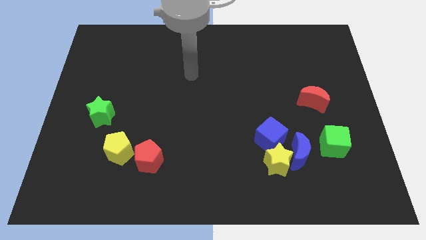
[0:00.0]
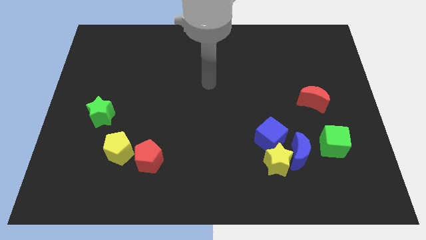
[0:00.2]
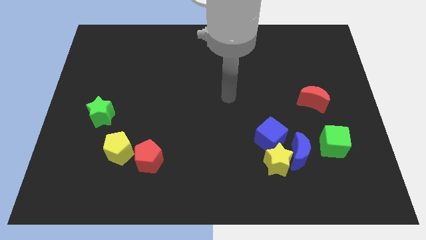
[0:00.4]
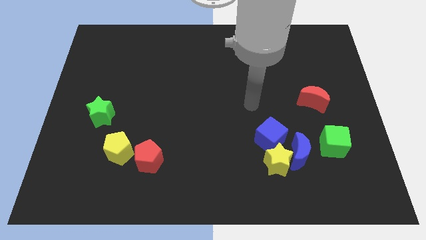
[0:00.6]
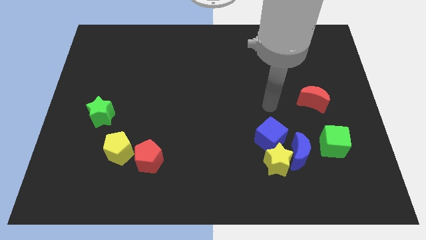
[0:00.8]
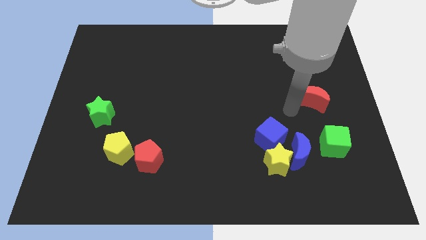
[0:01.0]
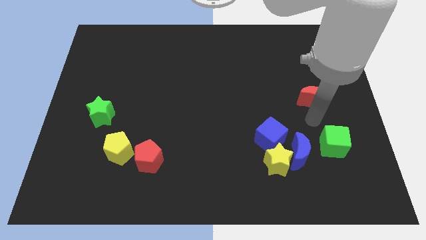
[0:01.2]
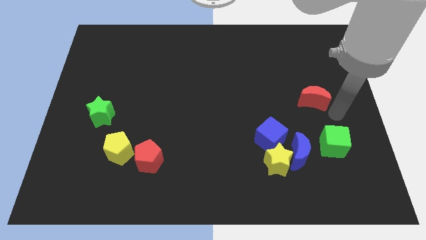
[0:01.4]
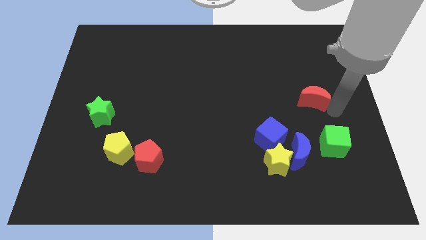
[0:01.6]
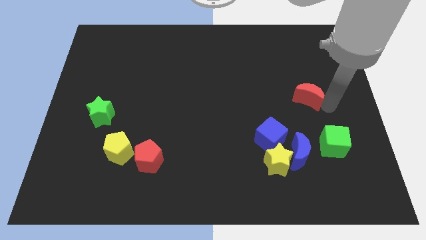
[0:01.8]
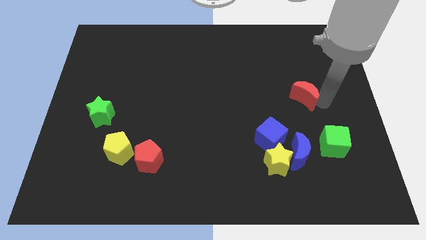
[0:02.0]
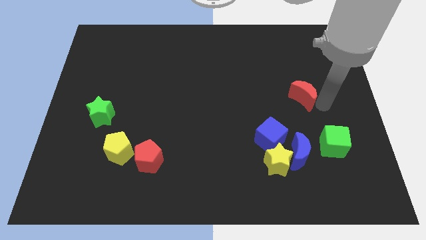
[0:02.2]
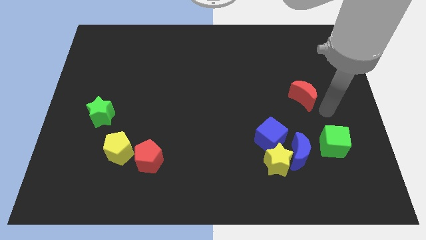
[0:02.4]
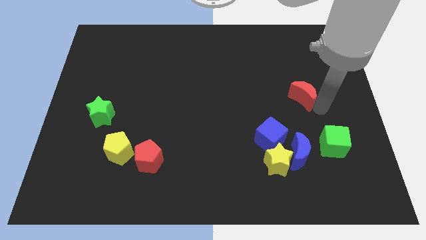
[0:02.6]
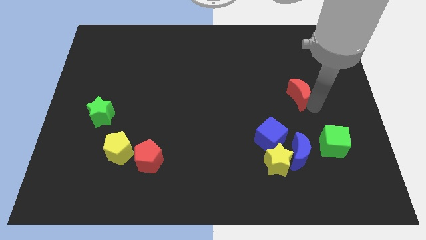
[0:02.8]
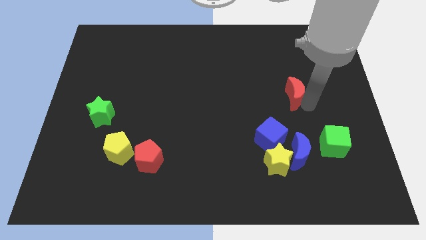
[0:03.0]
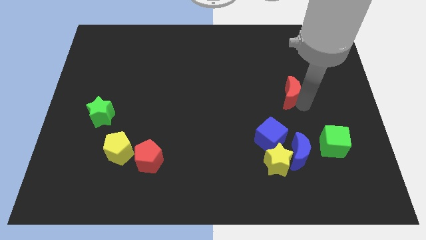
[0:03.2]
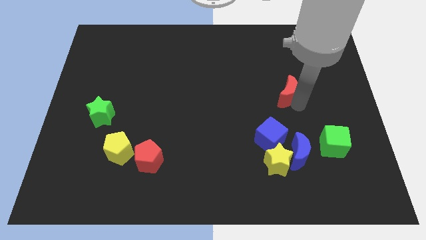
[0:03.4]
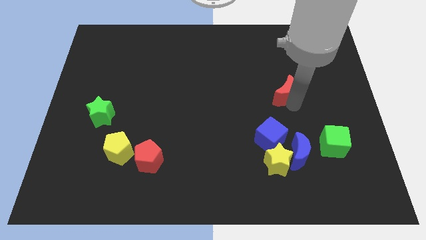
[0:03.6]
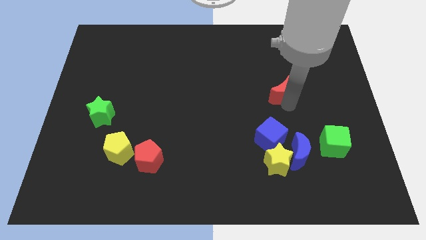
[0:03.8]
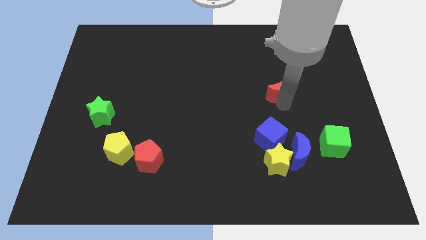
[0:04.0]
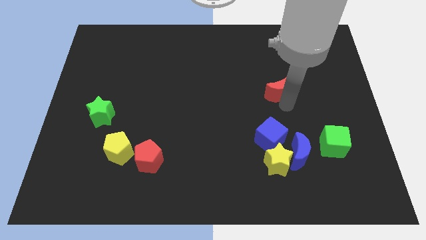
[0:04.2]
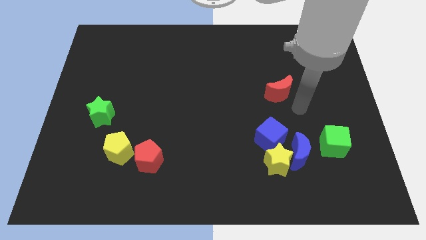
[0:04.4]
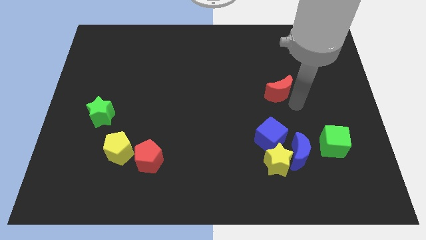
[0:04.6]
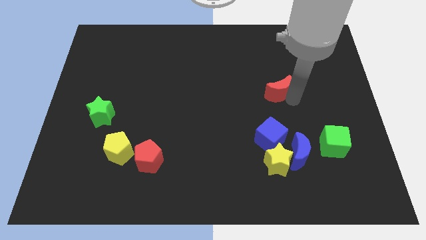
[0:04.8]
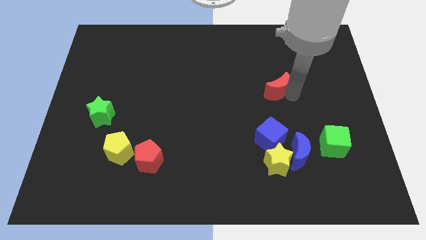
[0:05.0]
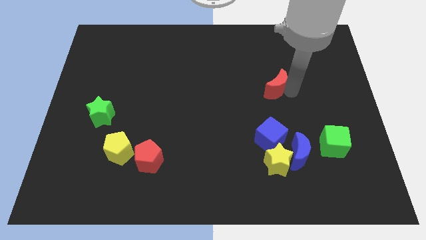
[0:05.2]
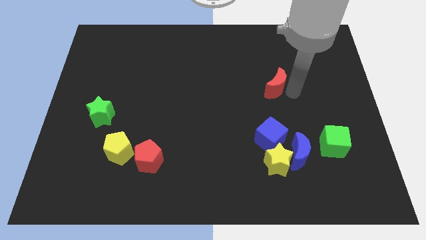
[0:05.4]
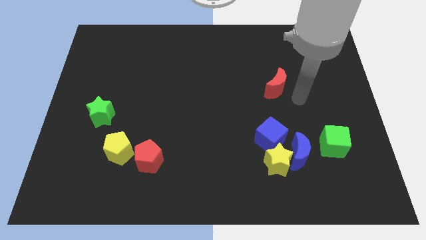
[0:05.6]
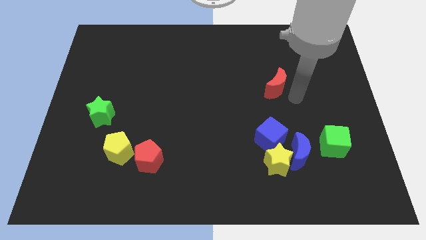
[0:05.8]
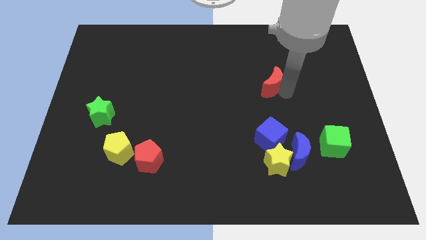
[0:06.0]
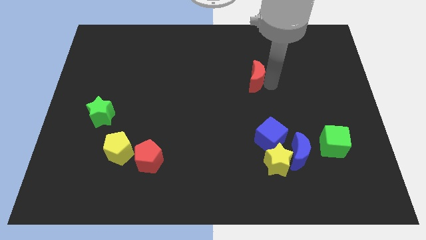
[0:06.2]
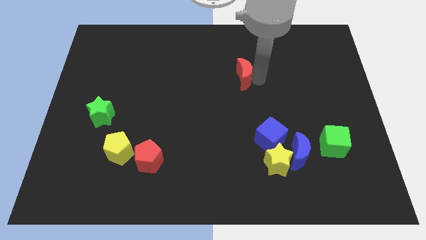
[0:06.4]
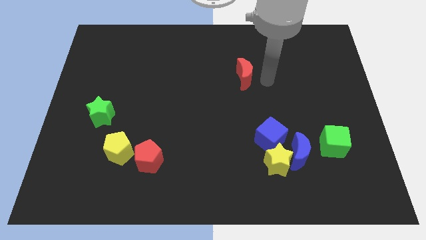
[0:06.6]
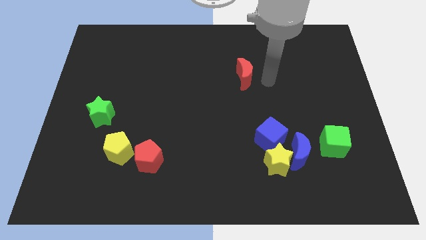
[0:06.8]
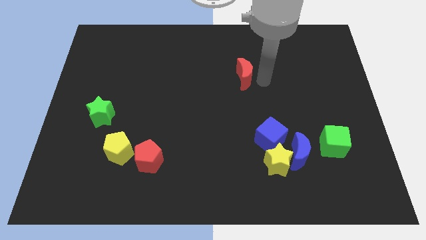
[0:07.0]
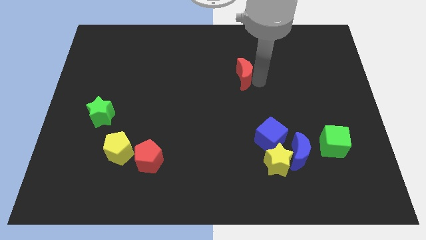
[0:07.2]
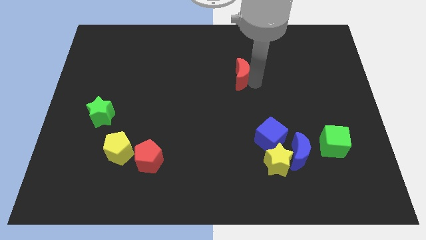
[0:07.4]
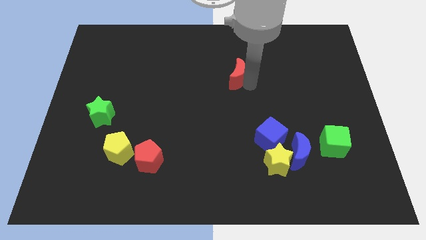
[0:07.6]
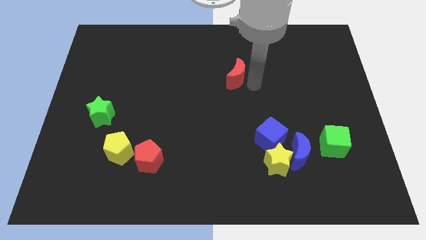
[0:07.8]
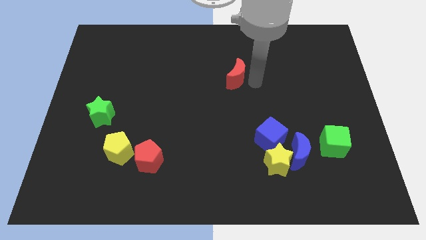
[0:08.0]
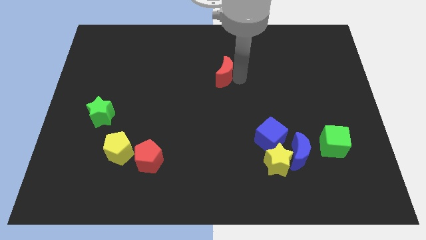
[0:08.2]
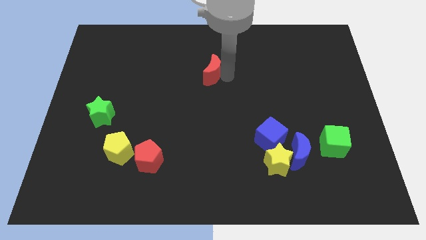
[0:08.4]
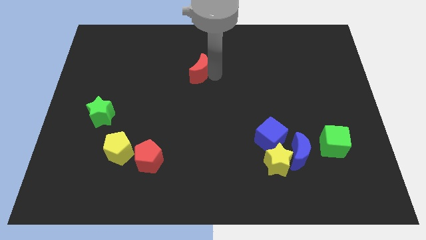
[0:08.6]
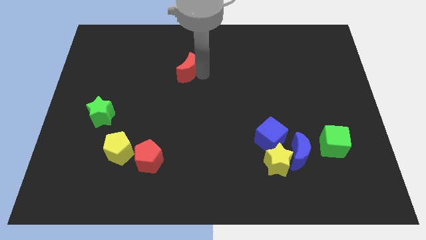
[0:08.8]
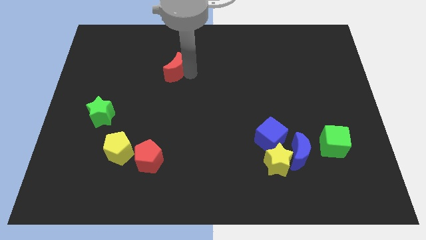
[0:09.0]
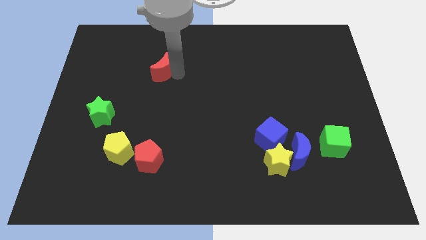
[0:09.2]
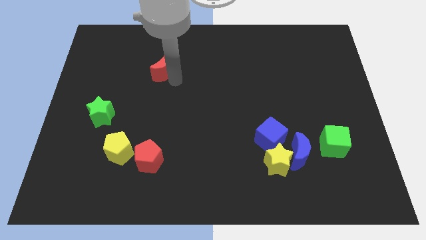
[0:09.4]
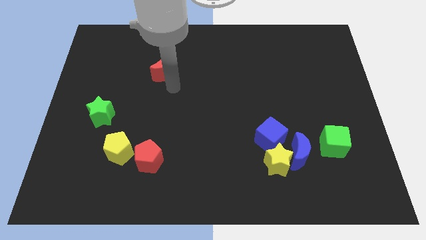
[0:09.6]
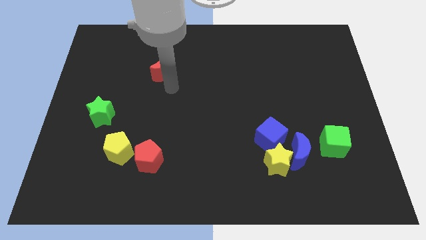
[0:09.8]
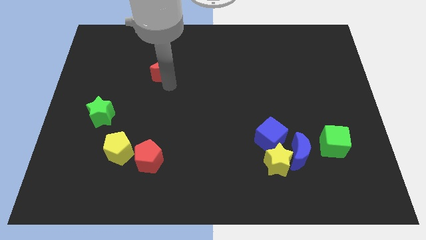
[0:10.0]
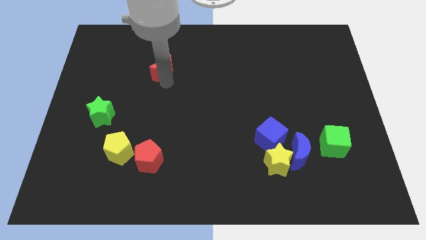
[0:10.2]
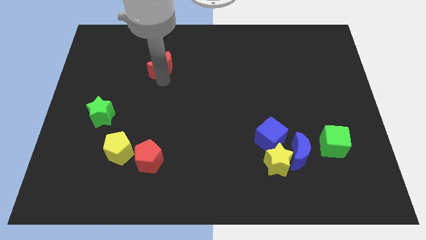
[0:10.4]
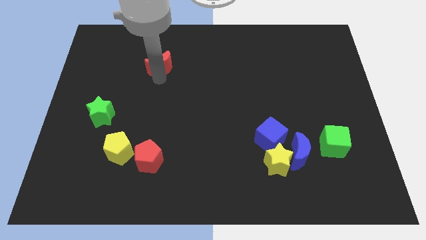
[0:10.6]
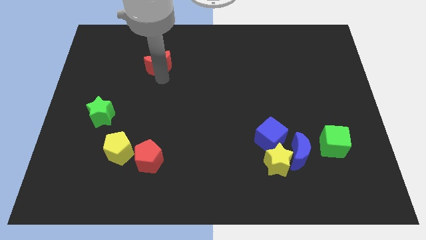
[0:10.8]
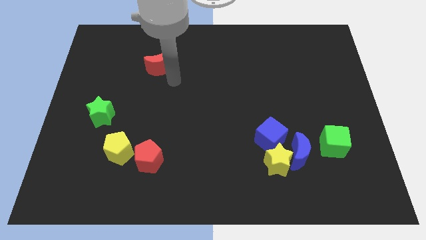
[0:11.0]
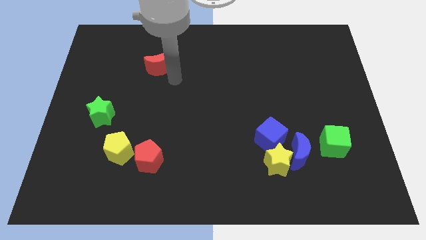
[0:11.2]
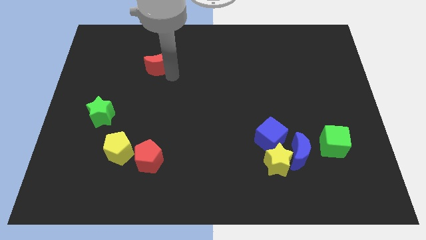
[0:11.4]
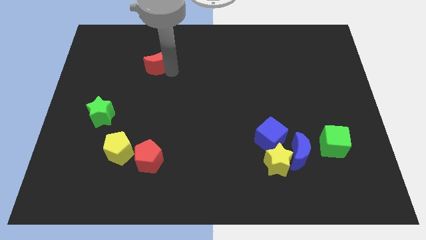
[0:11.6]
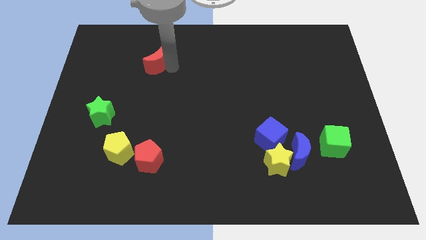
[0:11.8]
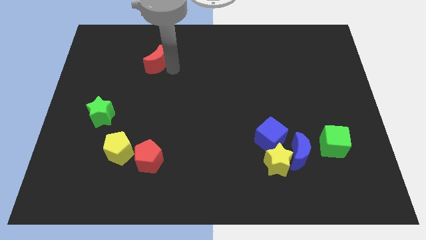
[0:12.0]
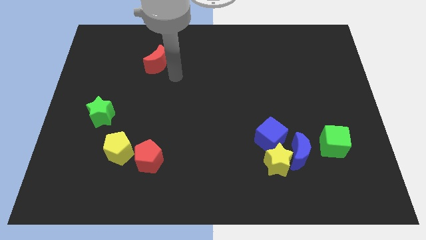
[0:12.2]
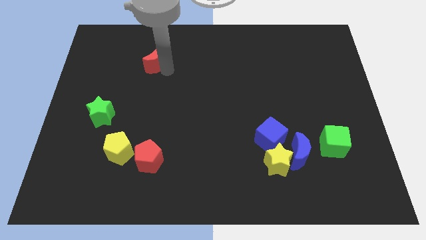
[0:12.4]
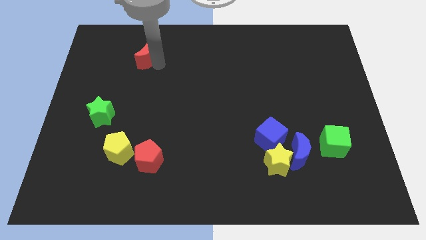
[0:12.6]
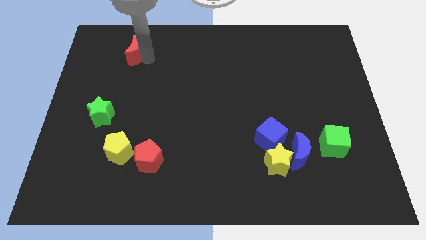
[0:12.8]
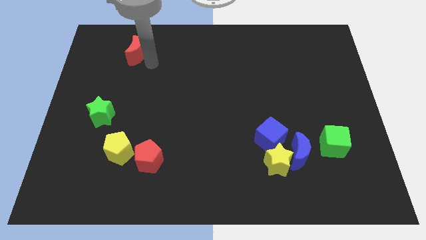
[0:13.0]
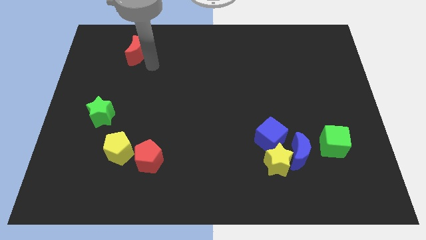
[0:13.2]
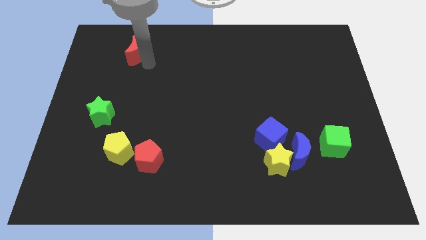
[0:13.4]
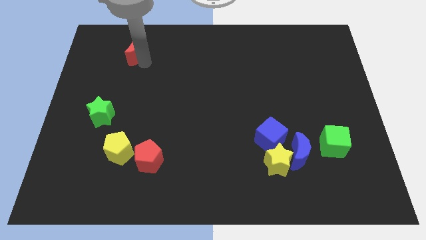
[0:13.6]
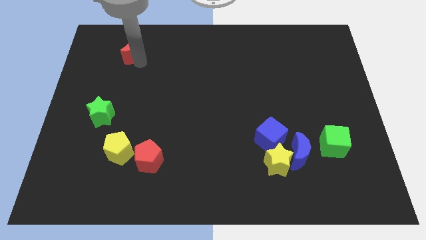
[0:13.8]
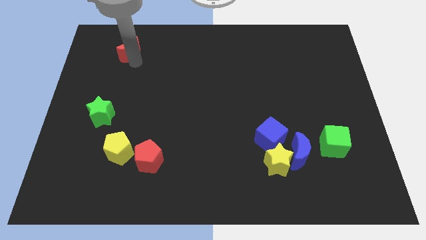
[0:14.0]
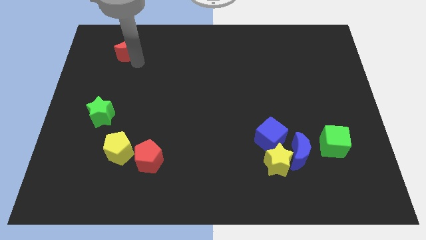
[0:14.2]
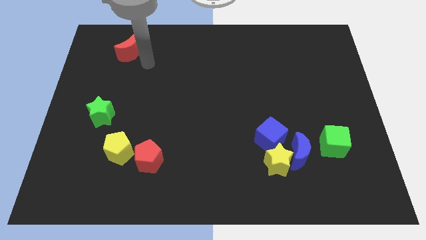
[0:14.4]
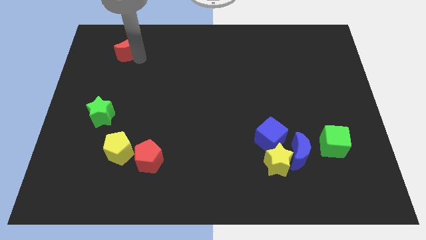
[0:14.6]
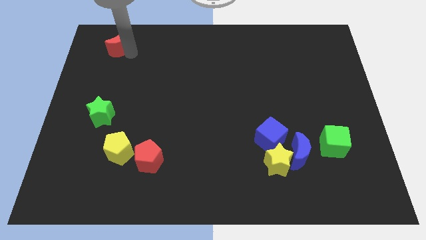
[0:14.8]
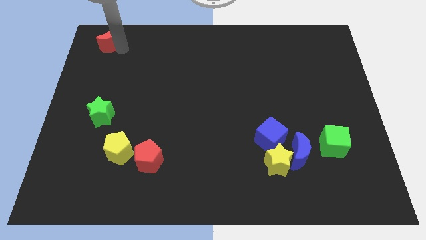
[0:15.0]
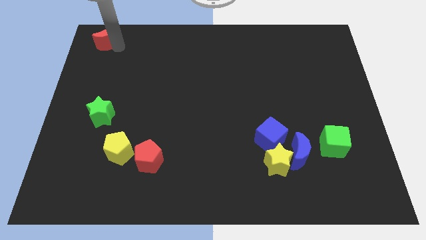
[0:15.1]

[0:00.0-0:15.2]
put the red moon to the top left of the board
